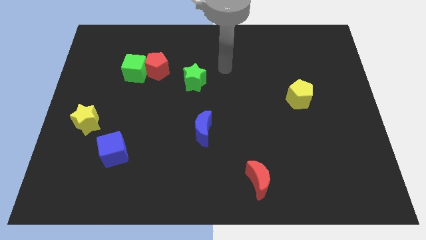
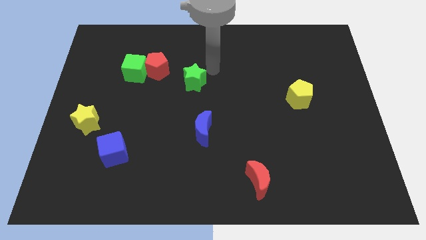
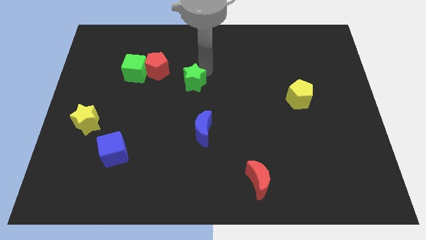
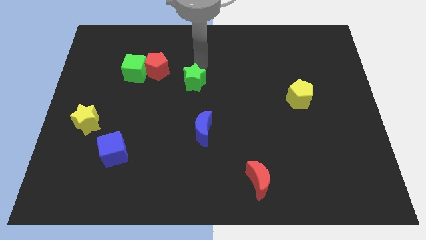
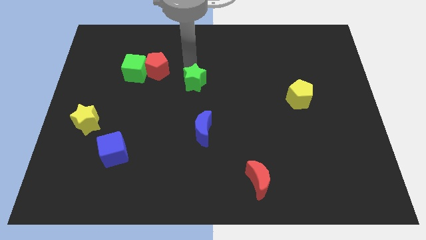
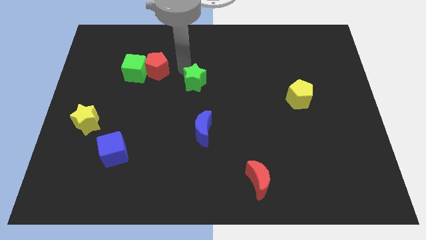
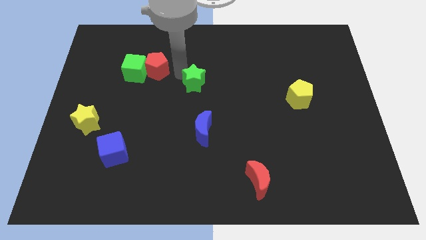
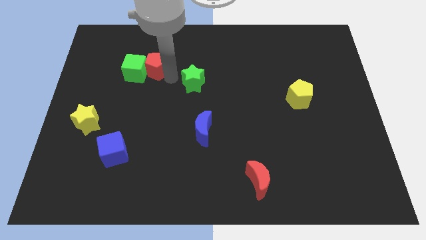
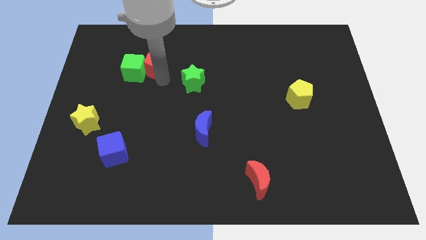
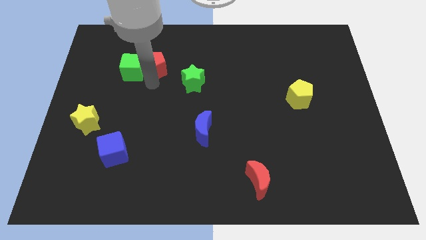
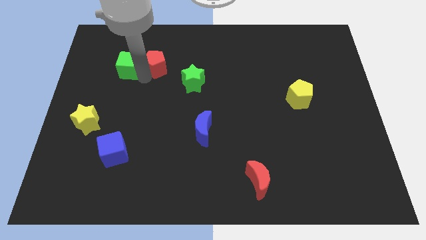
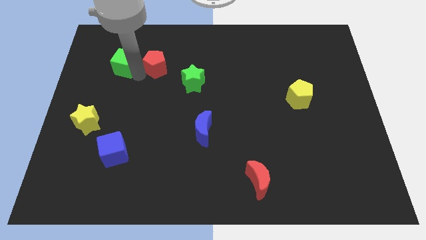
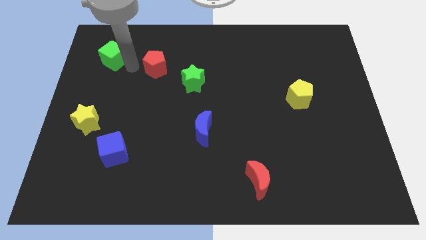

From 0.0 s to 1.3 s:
pull the red pentagon apart from the green cube

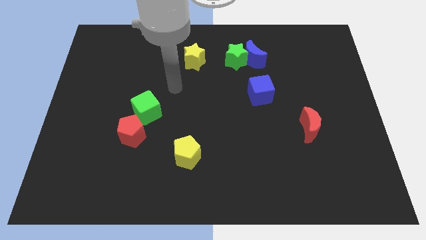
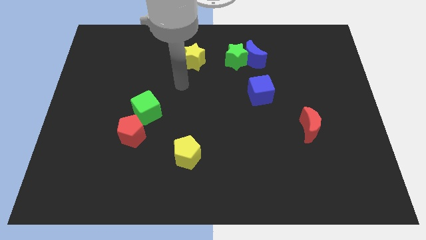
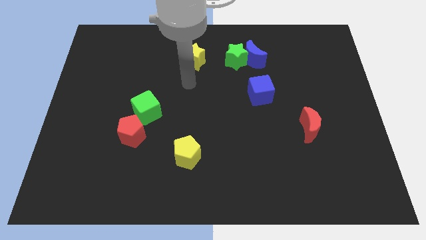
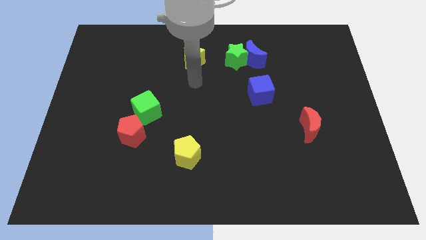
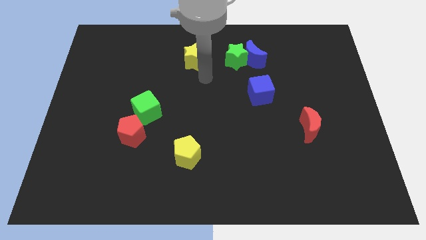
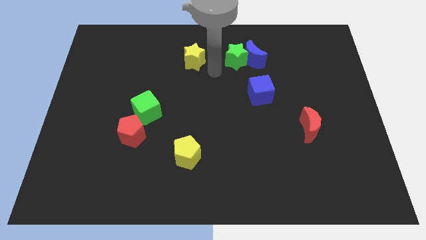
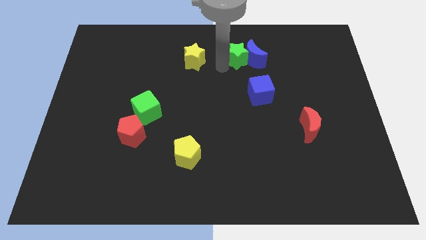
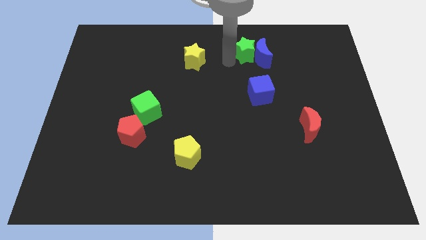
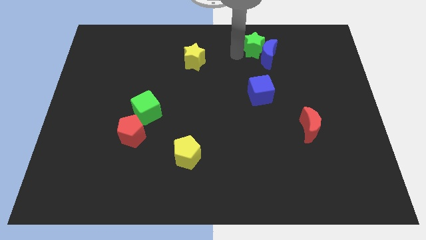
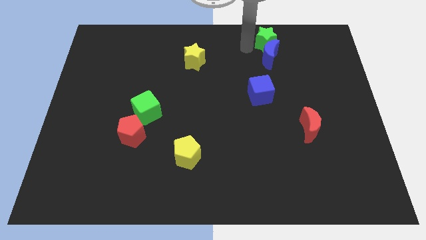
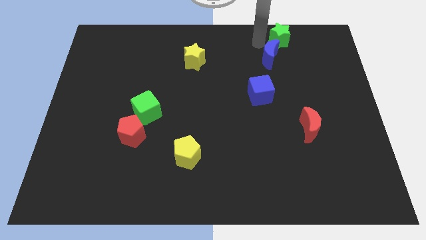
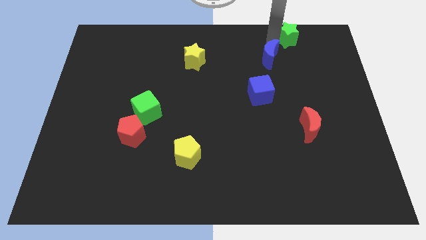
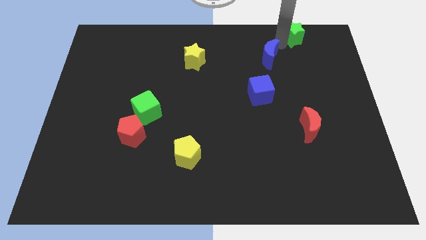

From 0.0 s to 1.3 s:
move the blue moon away from the green star

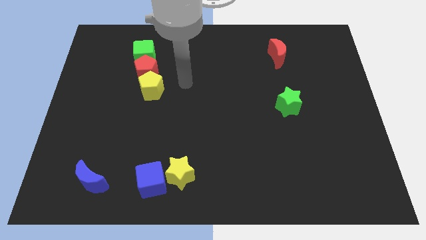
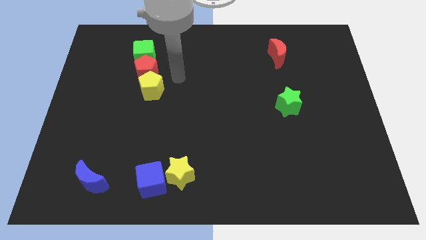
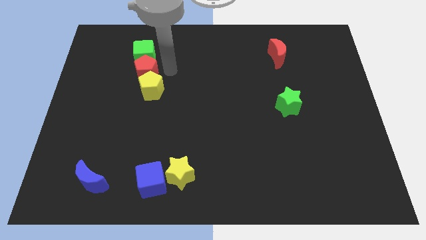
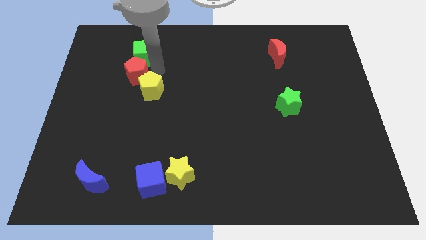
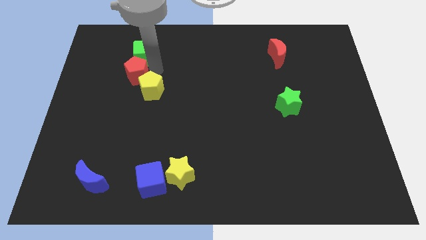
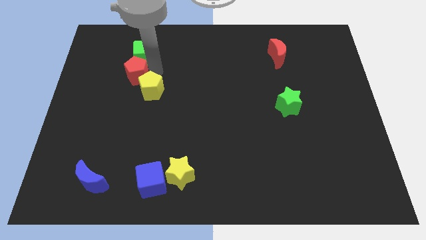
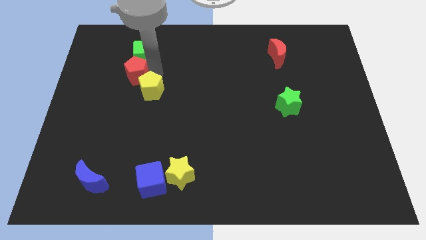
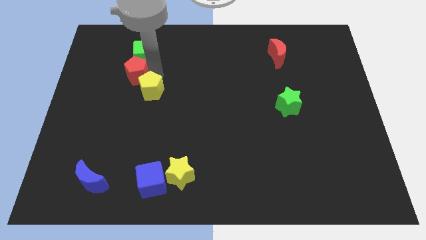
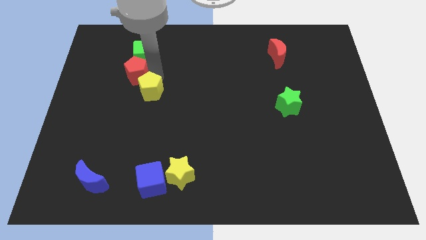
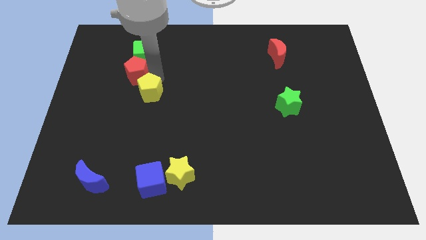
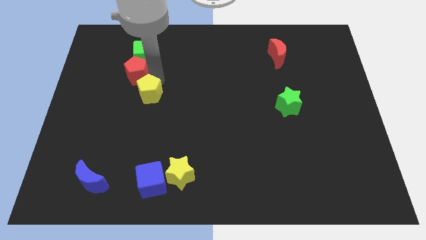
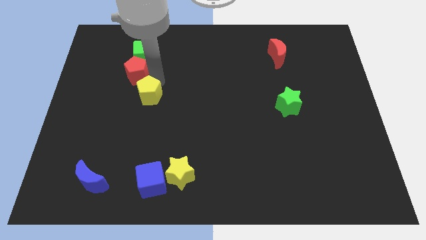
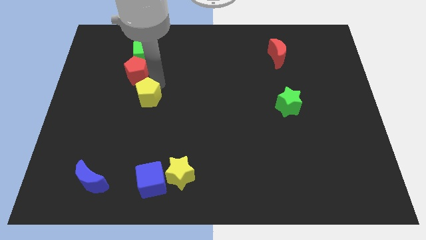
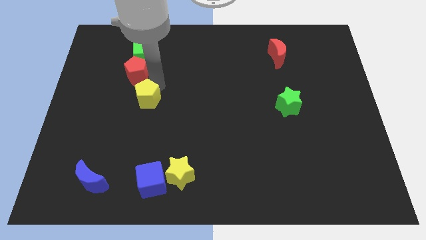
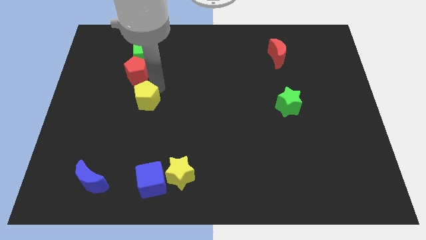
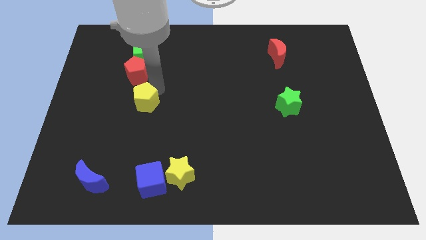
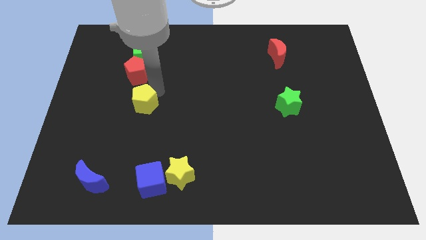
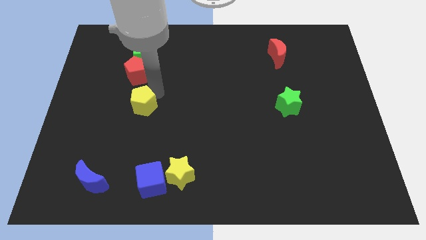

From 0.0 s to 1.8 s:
pull the yellow pentagon apart from the red pentagon

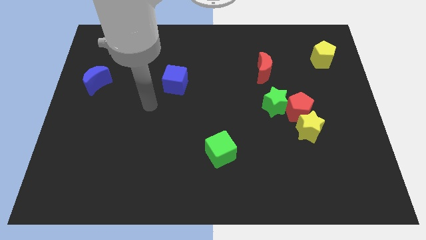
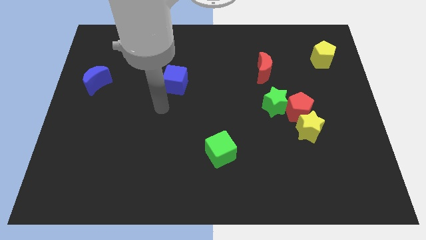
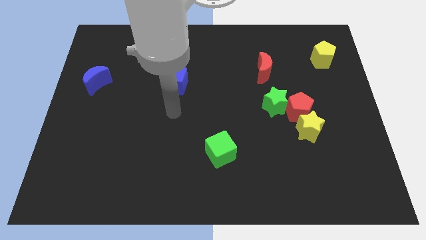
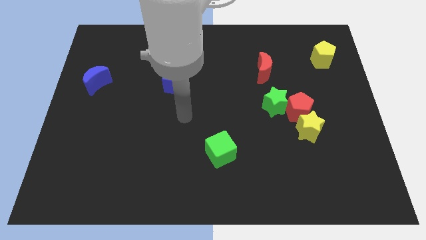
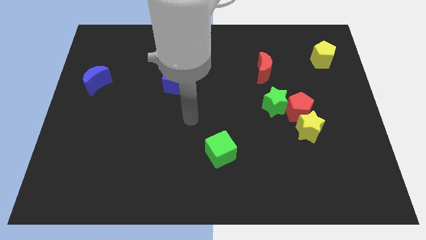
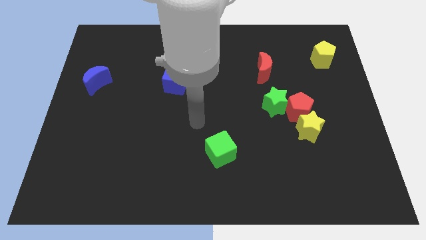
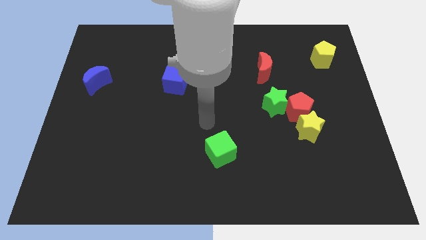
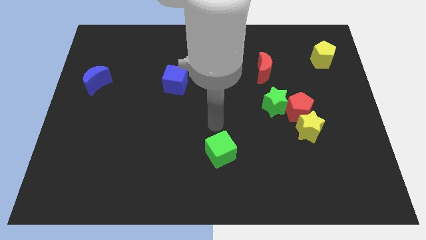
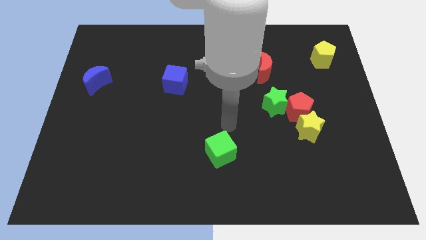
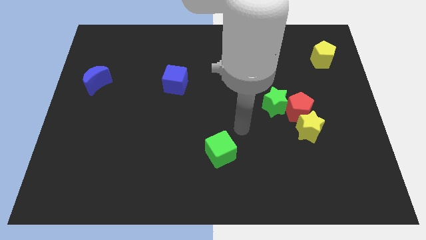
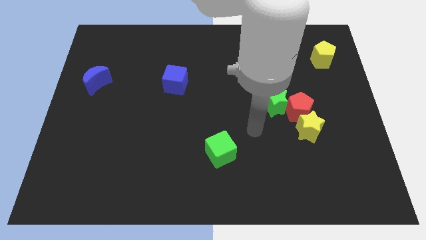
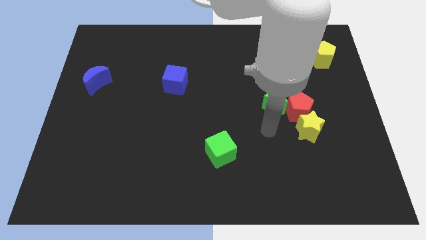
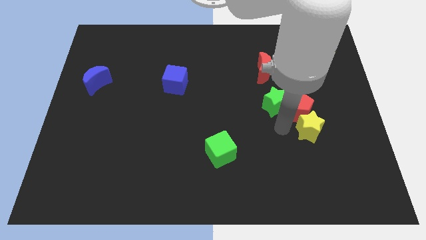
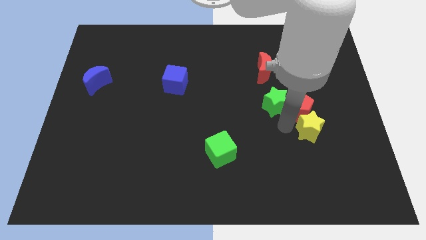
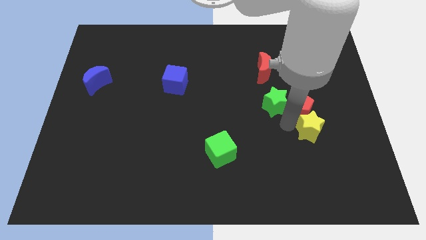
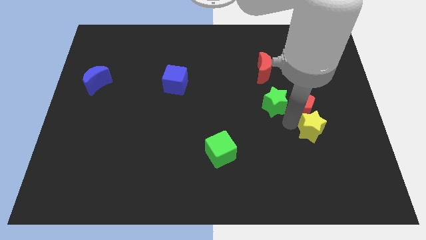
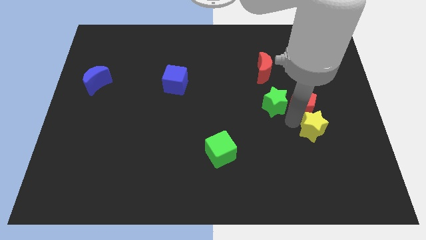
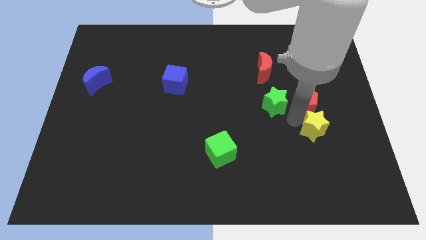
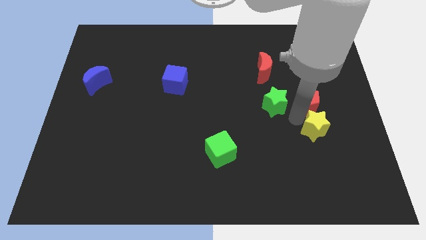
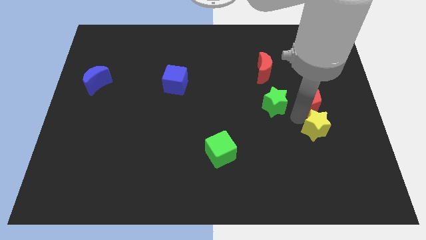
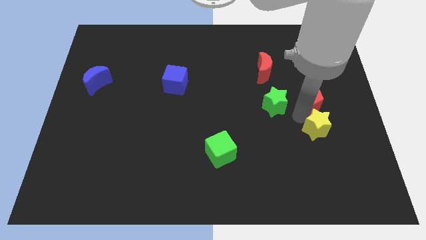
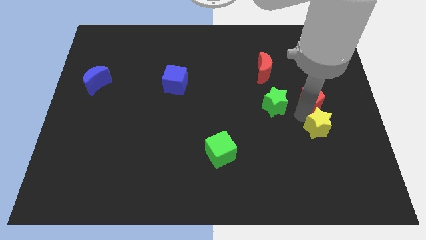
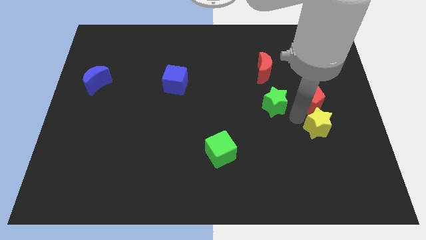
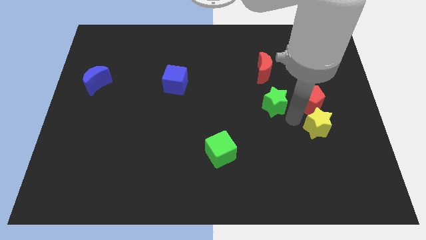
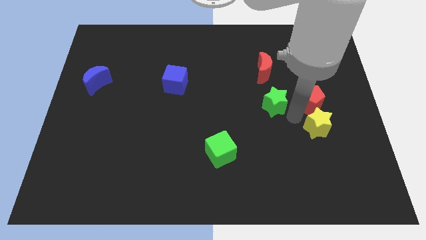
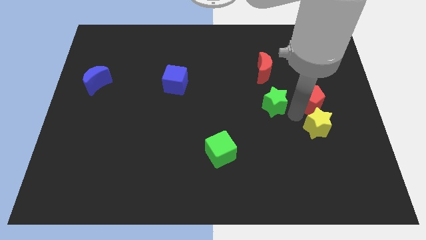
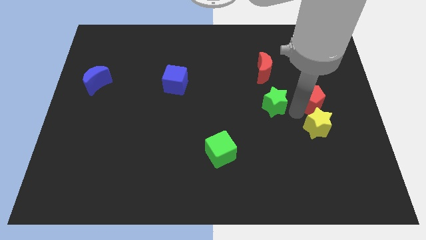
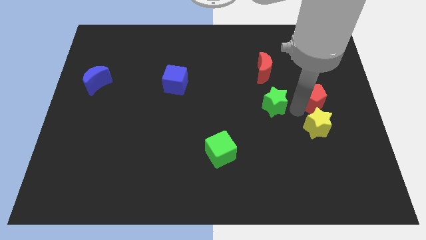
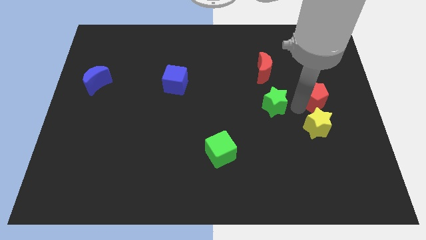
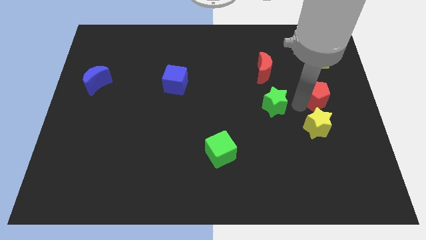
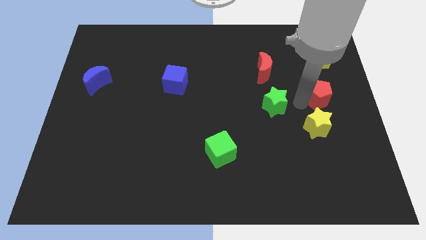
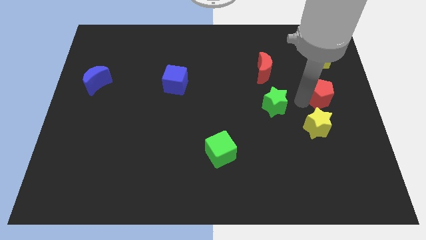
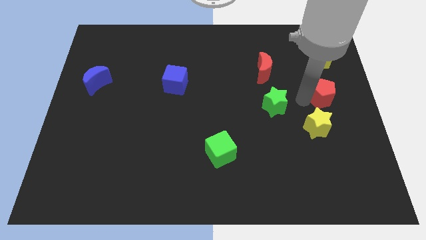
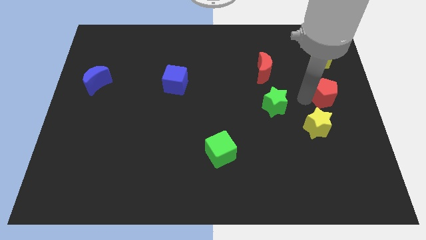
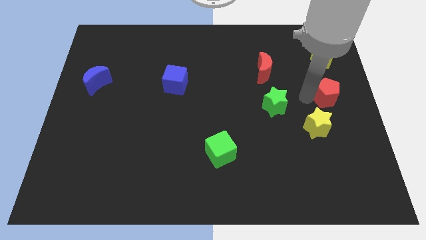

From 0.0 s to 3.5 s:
separate the red pentagon from the green star and yellow star

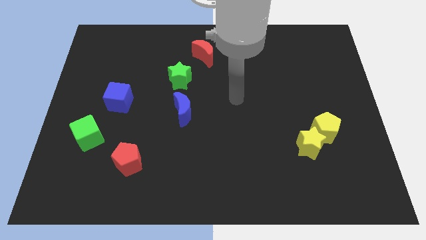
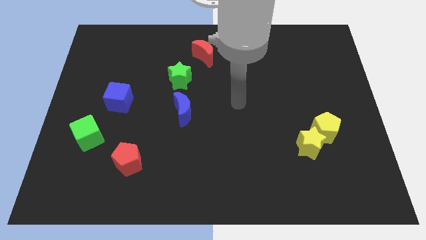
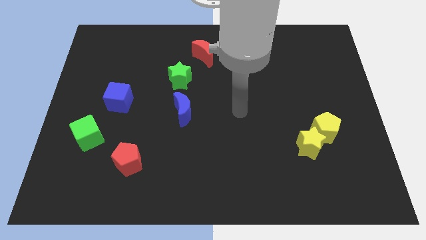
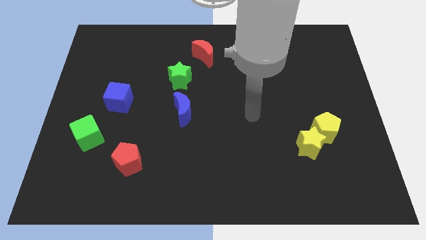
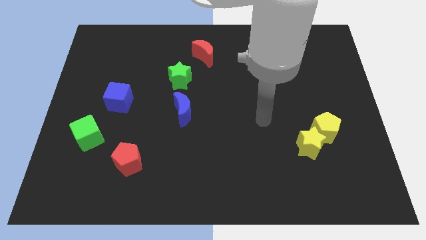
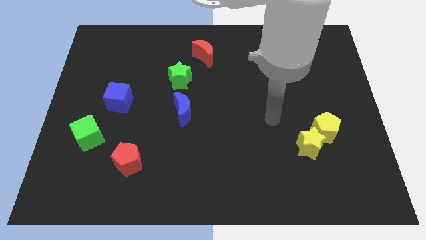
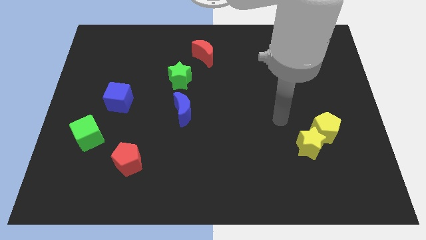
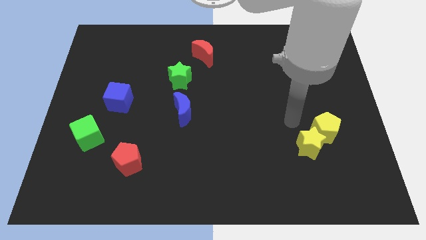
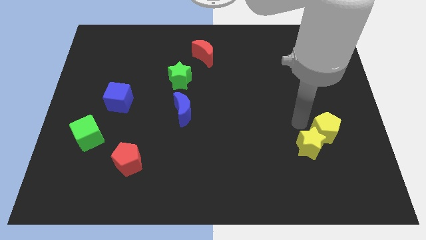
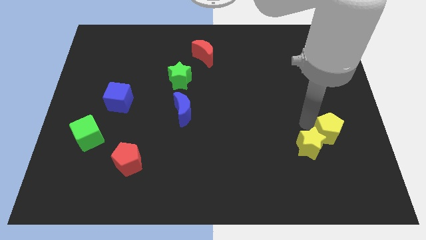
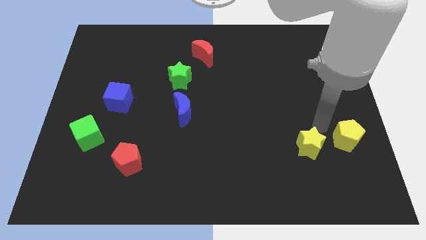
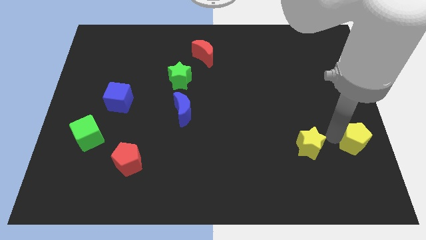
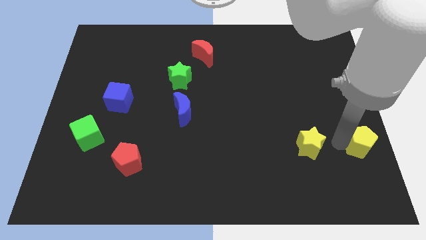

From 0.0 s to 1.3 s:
pull the yellow star apart from the yellow pentagon
